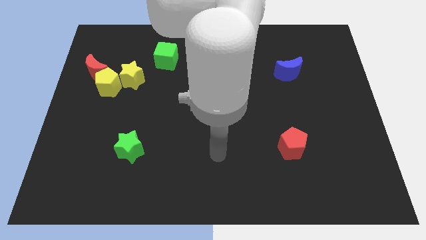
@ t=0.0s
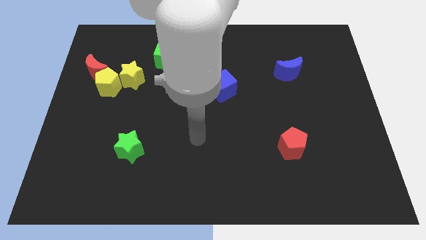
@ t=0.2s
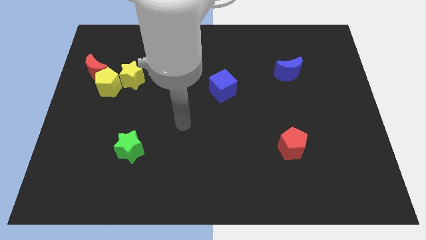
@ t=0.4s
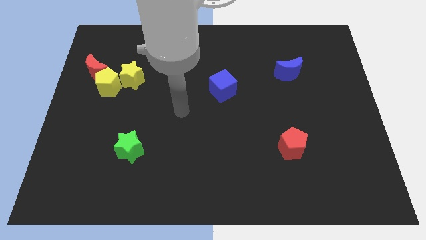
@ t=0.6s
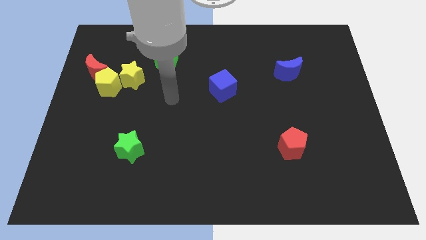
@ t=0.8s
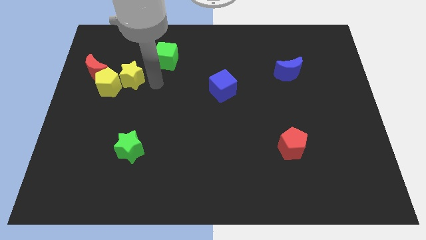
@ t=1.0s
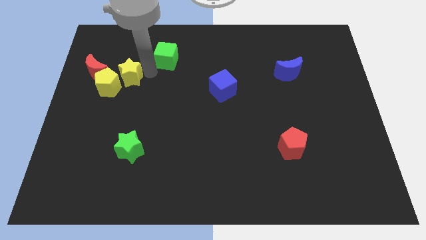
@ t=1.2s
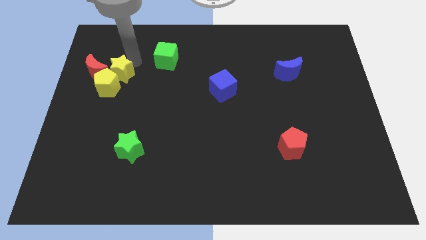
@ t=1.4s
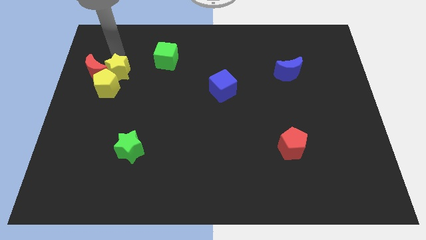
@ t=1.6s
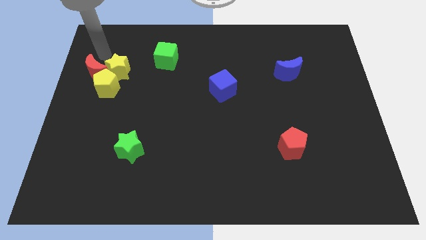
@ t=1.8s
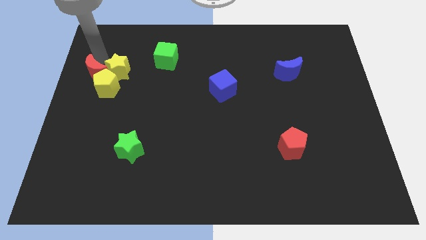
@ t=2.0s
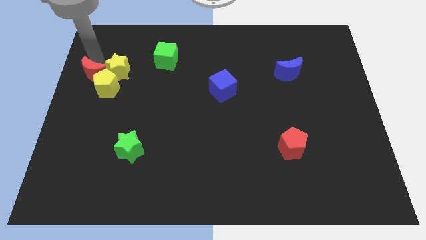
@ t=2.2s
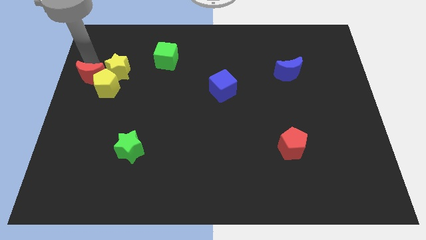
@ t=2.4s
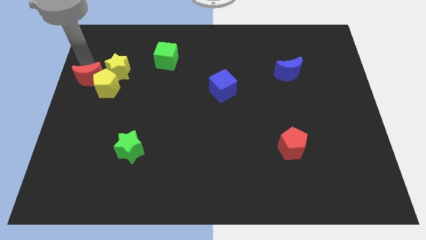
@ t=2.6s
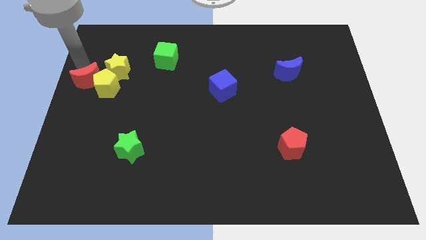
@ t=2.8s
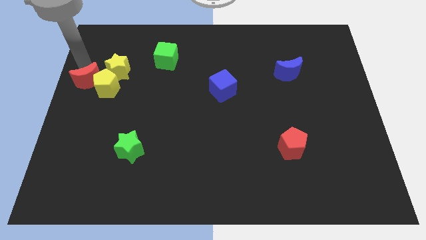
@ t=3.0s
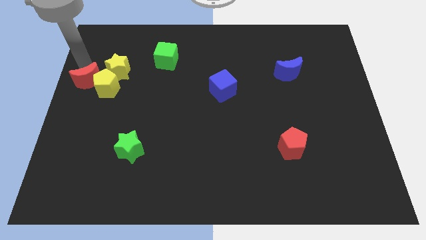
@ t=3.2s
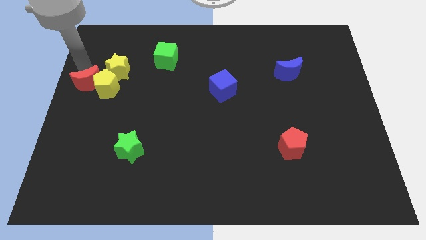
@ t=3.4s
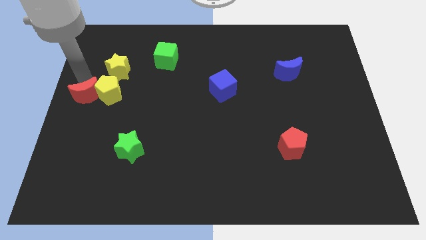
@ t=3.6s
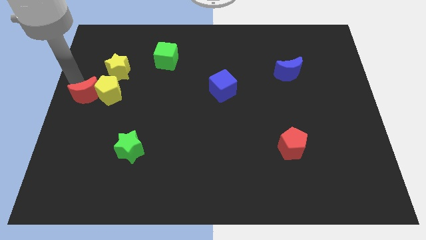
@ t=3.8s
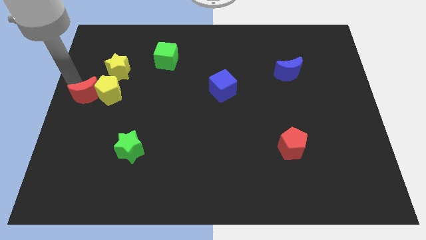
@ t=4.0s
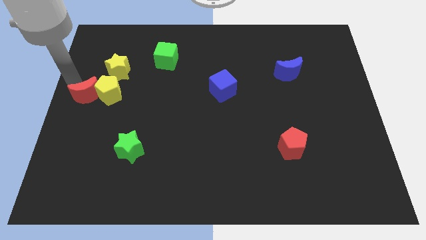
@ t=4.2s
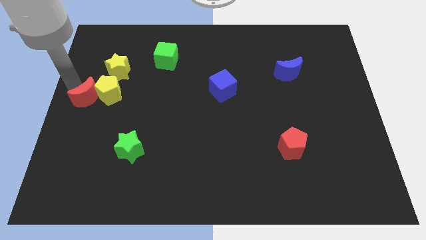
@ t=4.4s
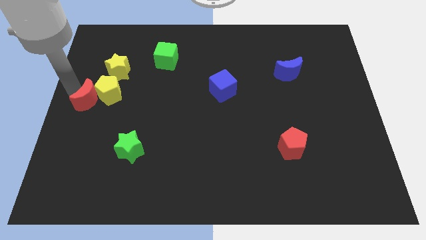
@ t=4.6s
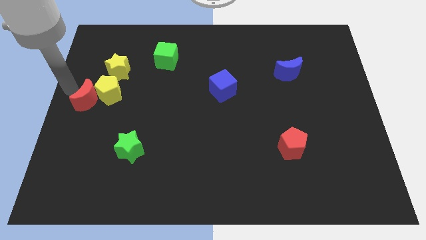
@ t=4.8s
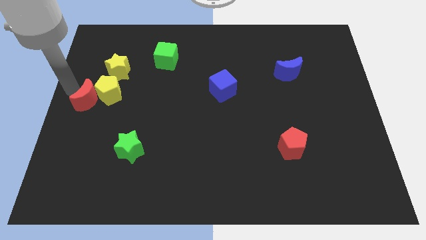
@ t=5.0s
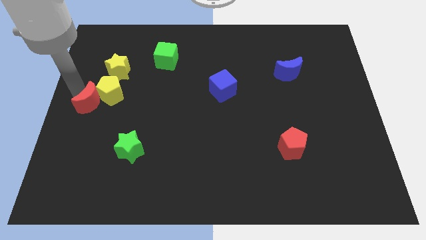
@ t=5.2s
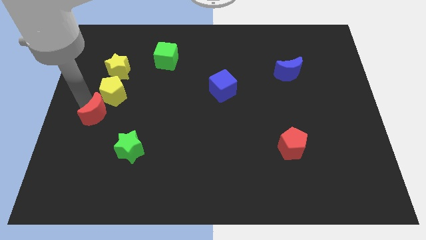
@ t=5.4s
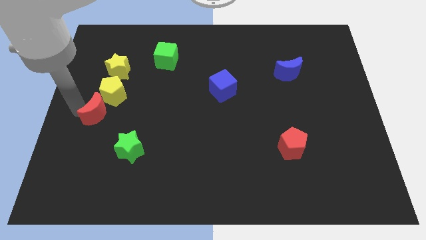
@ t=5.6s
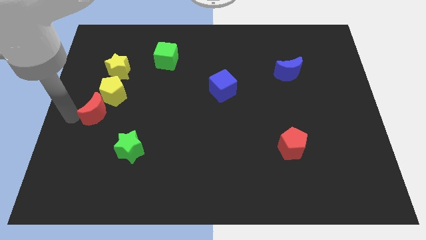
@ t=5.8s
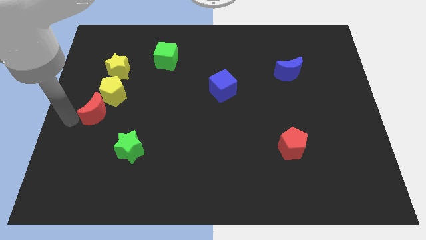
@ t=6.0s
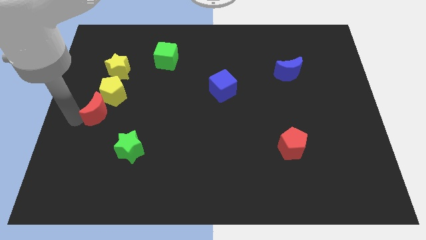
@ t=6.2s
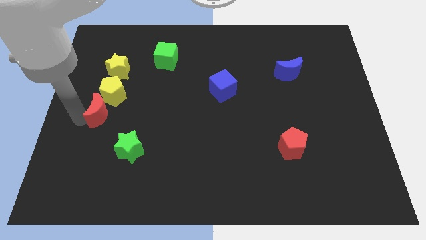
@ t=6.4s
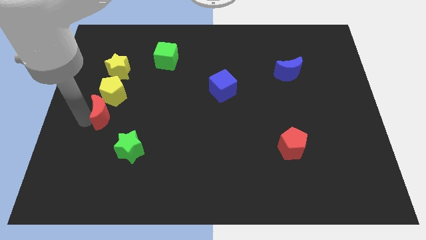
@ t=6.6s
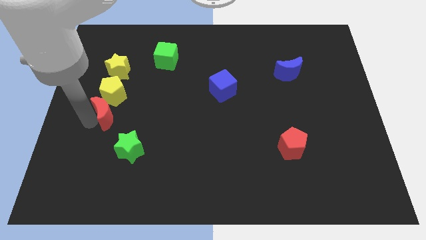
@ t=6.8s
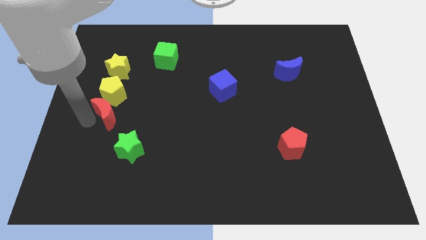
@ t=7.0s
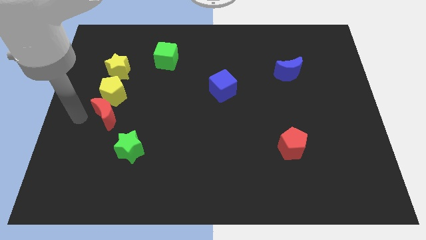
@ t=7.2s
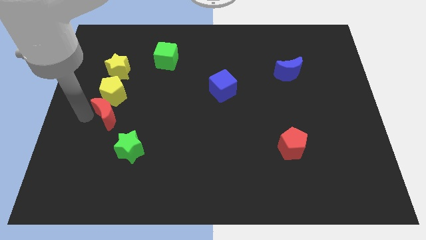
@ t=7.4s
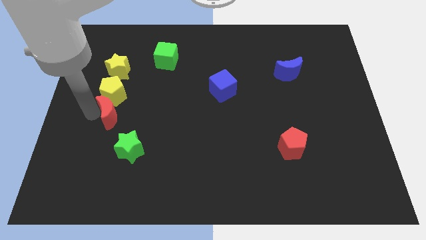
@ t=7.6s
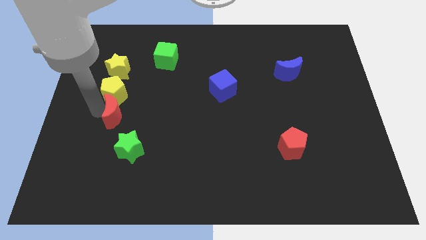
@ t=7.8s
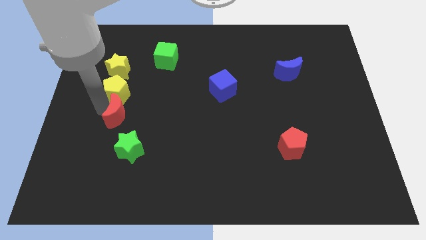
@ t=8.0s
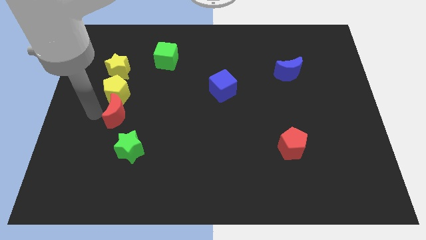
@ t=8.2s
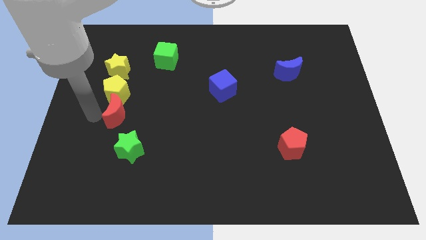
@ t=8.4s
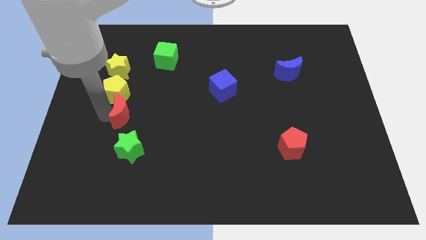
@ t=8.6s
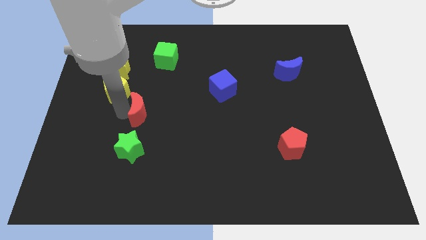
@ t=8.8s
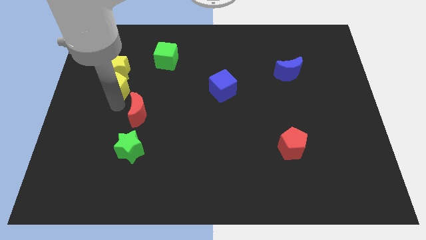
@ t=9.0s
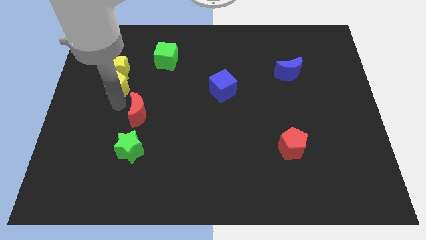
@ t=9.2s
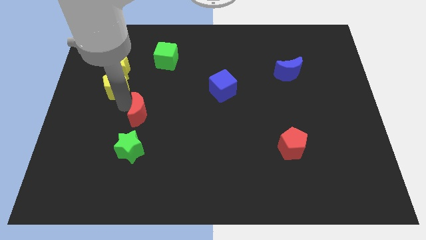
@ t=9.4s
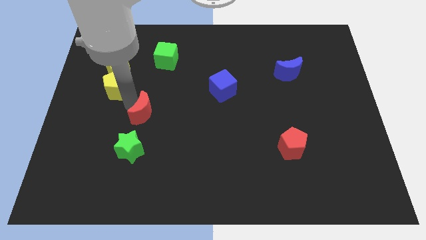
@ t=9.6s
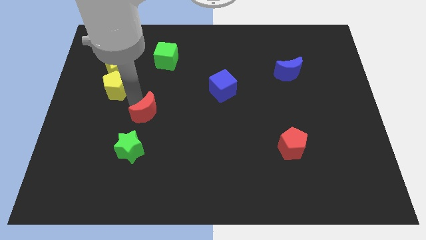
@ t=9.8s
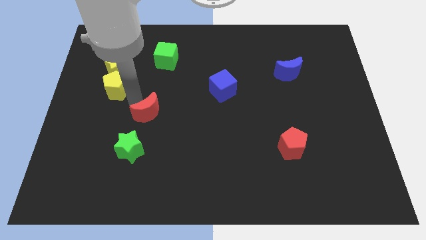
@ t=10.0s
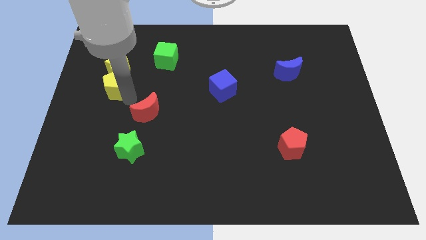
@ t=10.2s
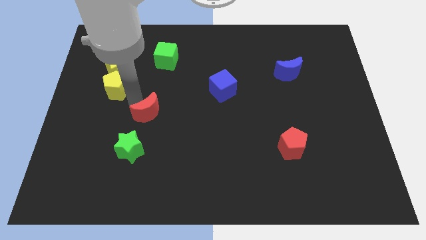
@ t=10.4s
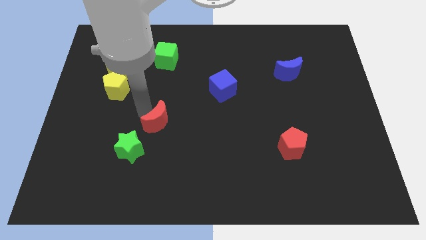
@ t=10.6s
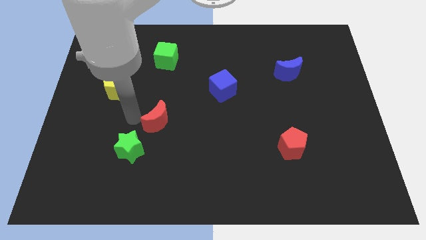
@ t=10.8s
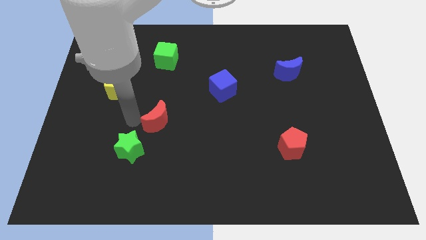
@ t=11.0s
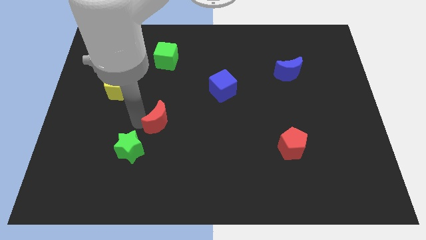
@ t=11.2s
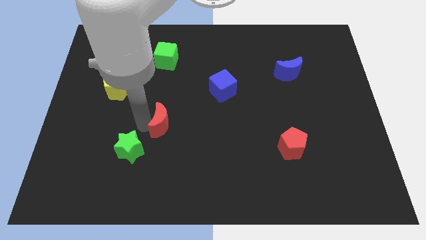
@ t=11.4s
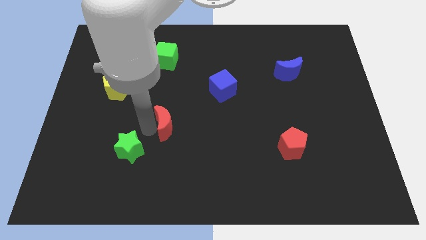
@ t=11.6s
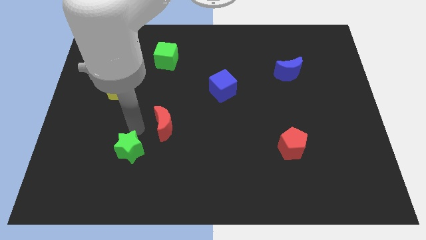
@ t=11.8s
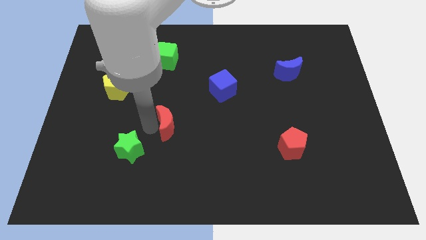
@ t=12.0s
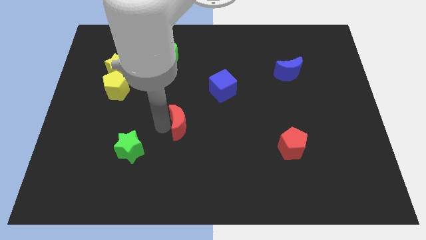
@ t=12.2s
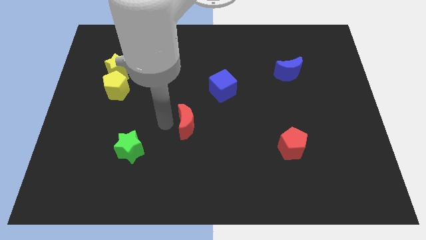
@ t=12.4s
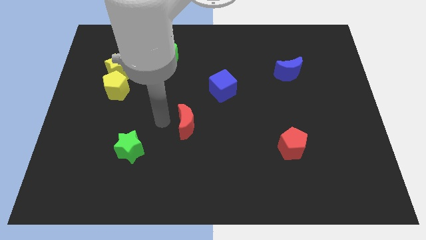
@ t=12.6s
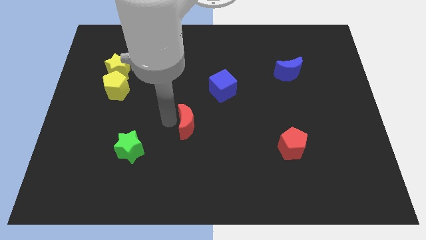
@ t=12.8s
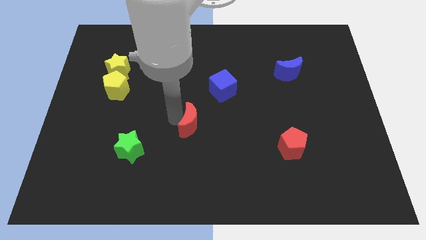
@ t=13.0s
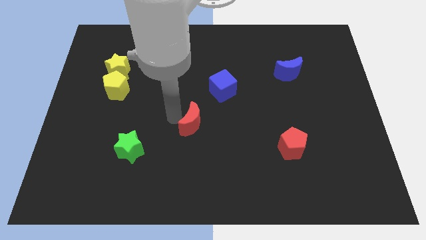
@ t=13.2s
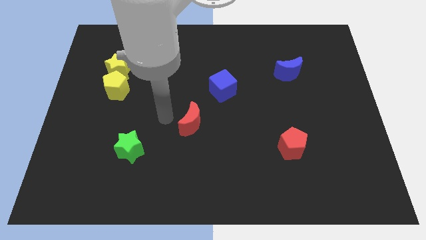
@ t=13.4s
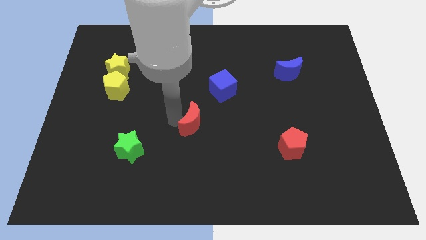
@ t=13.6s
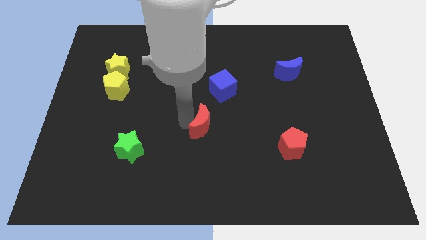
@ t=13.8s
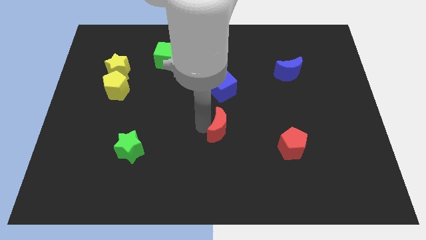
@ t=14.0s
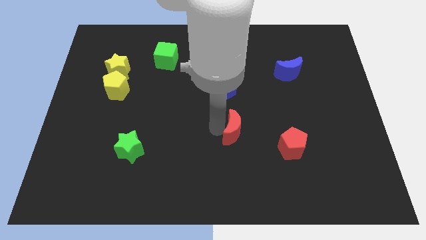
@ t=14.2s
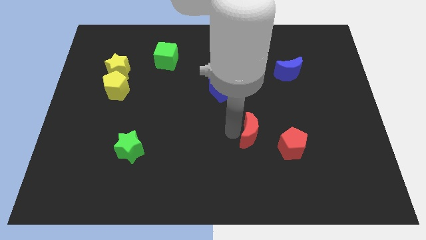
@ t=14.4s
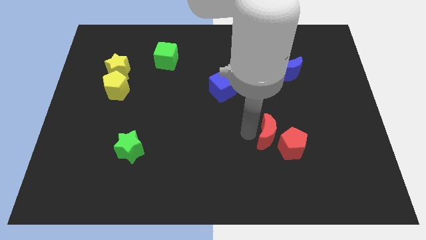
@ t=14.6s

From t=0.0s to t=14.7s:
move the red moon next to the red pentagon
